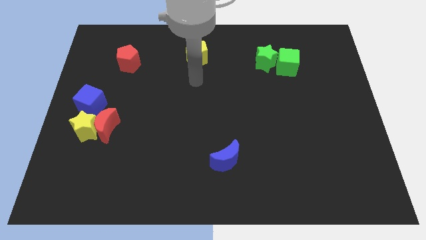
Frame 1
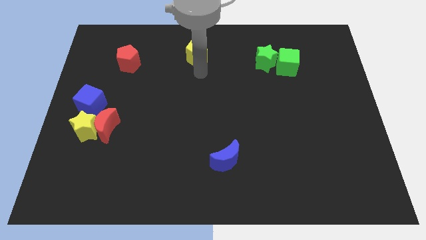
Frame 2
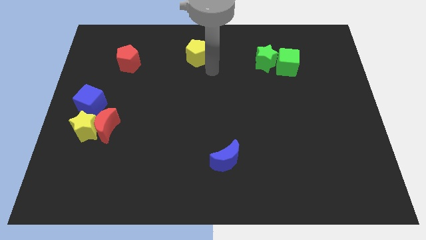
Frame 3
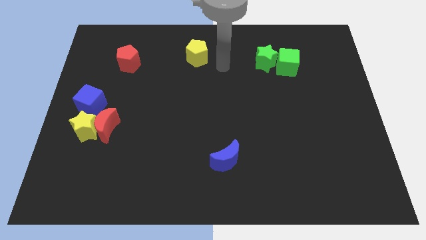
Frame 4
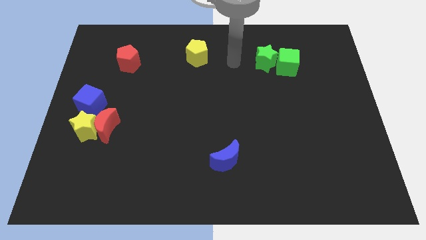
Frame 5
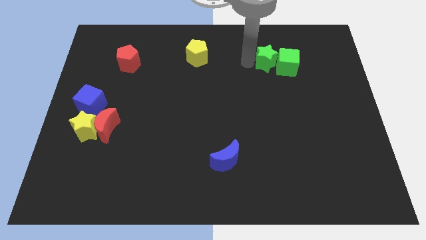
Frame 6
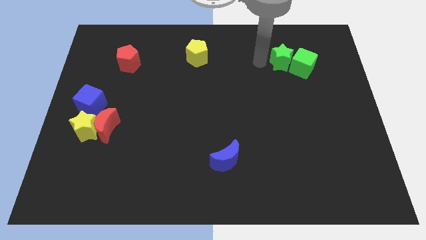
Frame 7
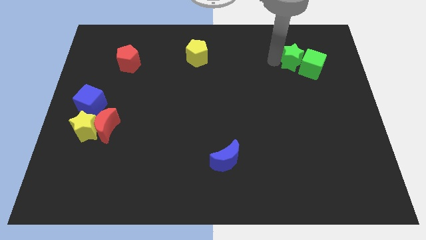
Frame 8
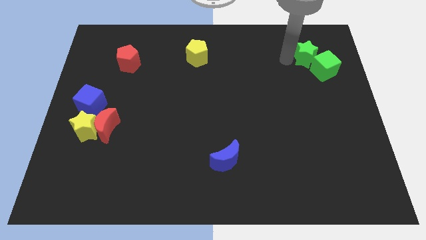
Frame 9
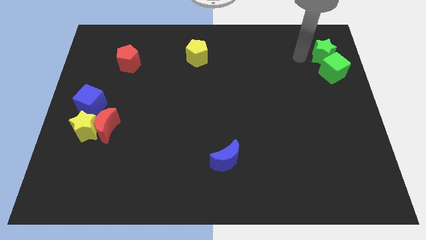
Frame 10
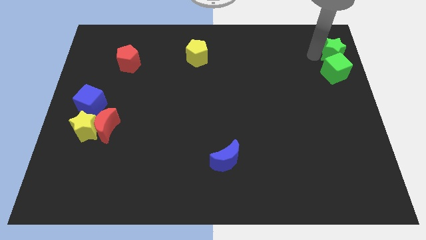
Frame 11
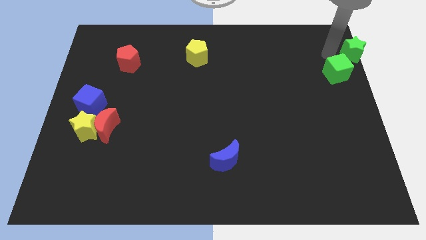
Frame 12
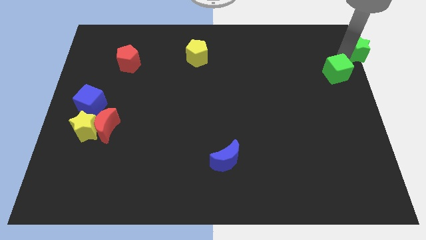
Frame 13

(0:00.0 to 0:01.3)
move the green cube away from the green star

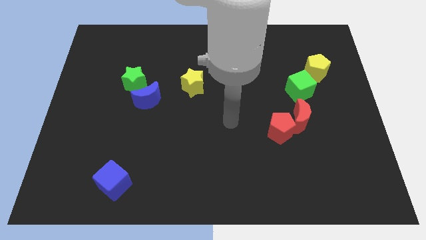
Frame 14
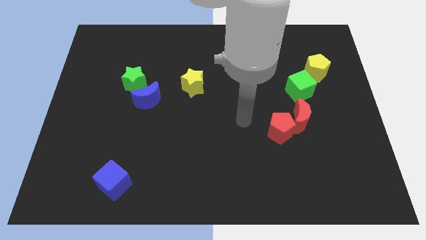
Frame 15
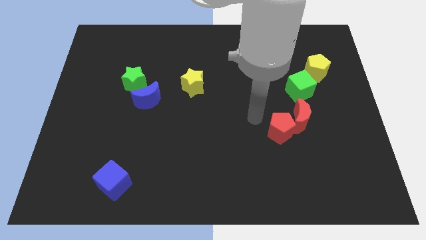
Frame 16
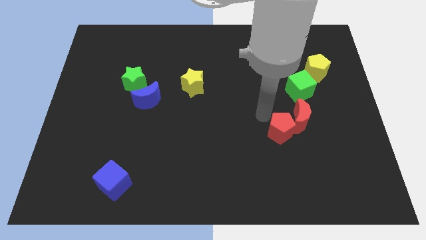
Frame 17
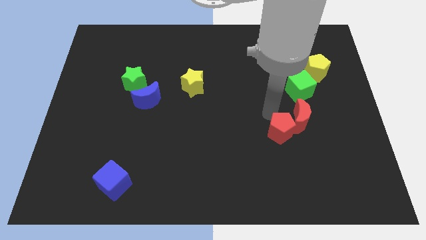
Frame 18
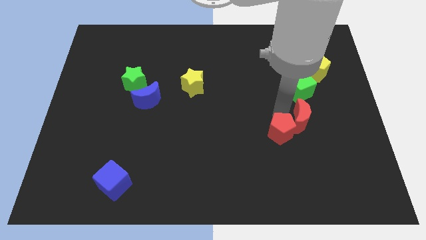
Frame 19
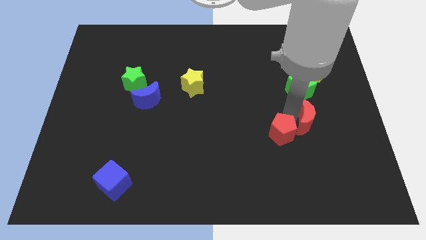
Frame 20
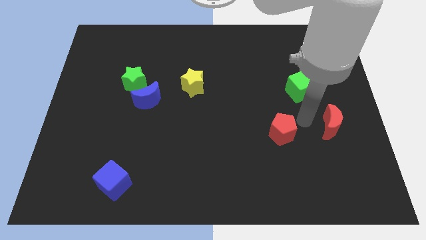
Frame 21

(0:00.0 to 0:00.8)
pull the red pentagon apart from the red moon

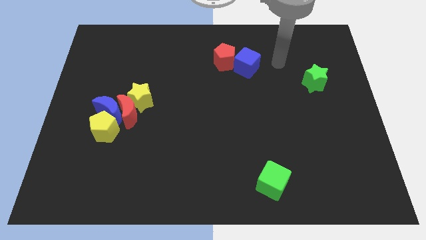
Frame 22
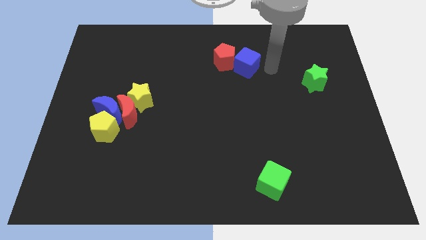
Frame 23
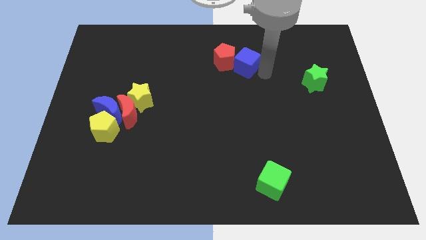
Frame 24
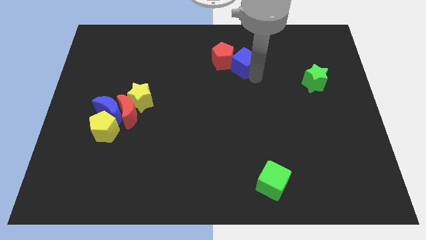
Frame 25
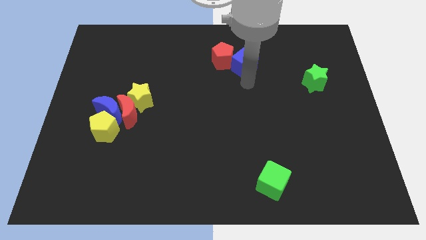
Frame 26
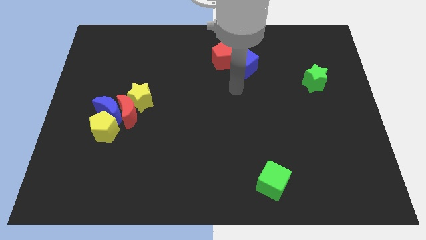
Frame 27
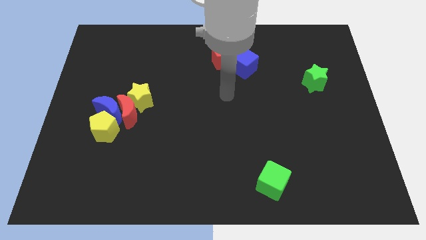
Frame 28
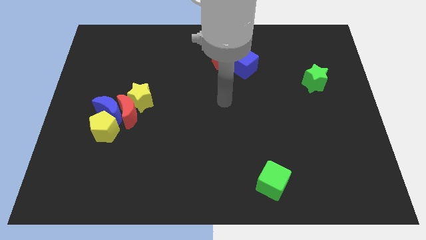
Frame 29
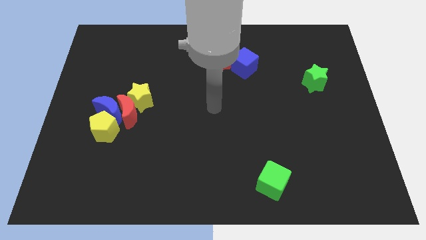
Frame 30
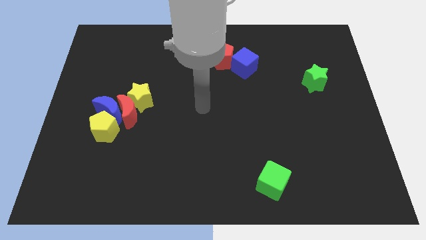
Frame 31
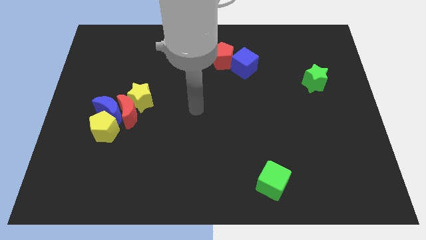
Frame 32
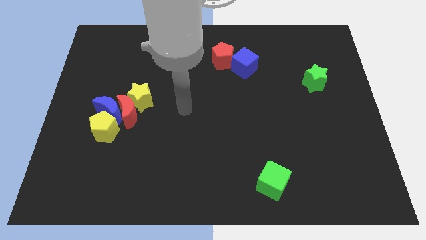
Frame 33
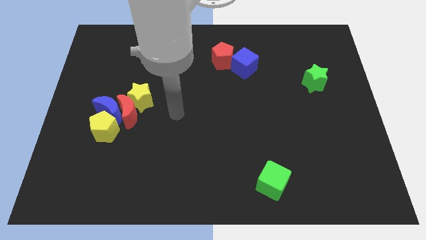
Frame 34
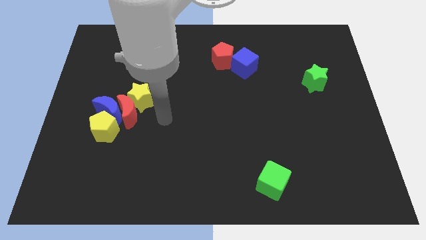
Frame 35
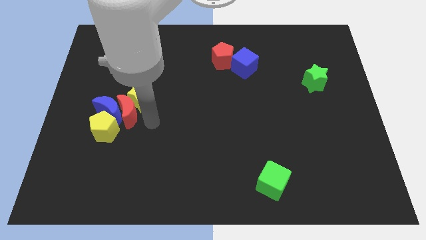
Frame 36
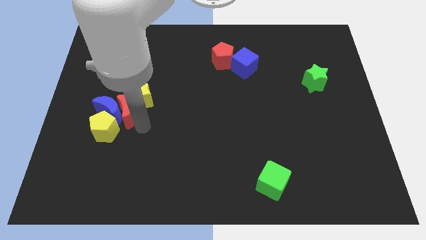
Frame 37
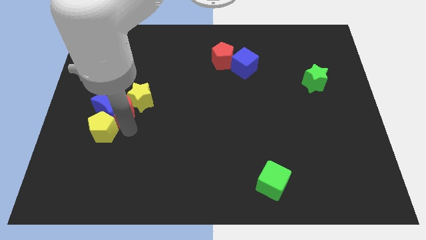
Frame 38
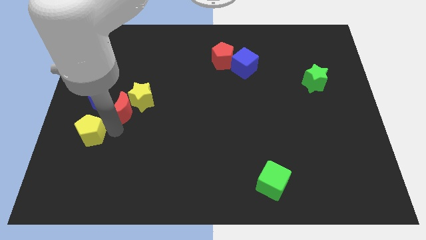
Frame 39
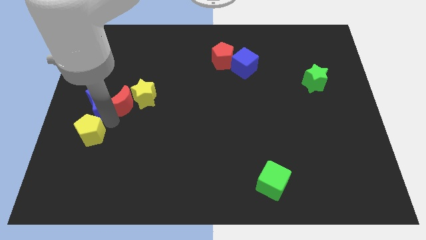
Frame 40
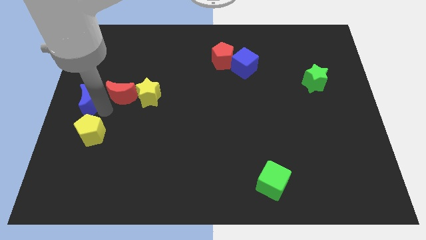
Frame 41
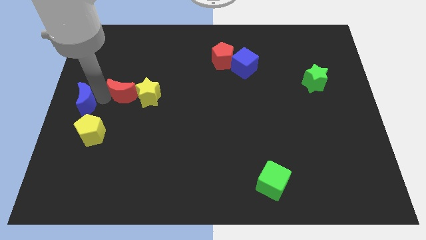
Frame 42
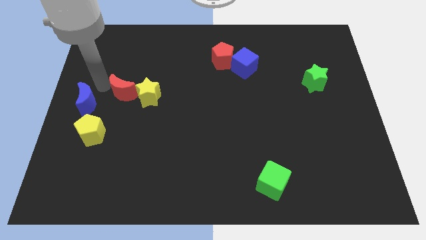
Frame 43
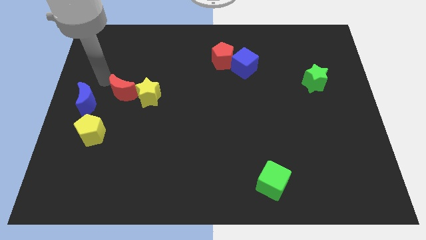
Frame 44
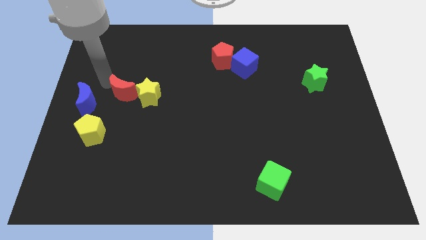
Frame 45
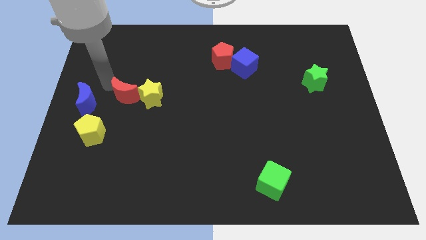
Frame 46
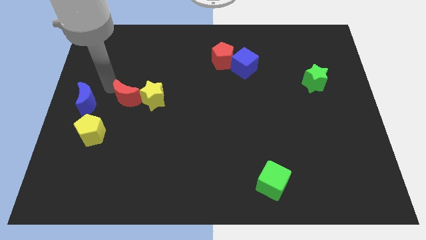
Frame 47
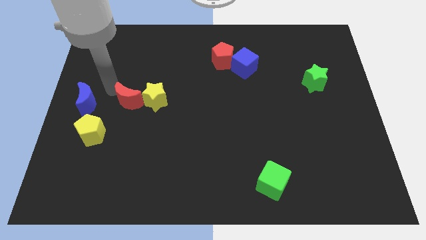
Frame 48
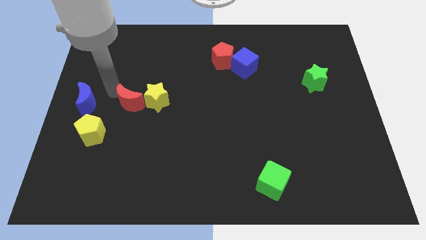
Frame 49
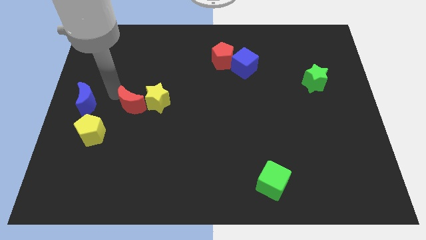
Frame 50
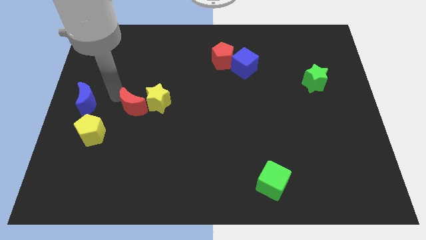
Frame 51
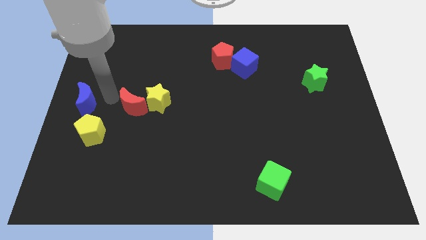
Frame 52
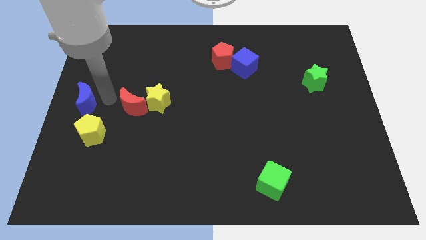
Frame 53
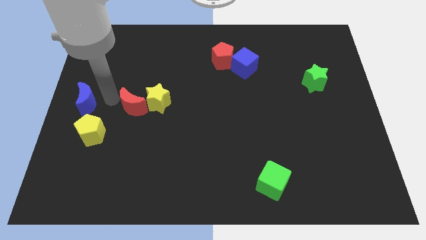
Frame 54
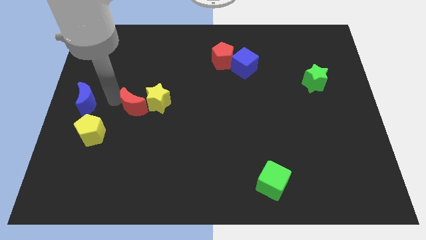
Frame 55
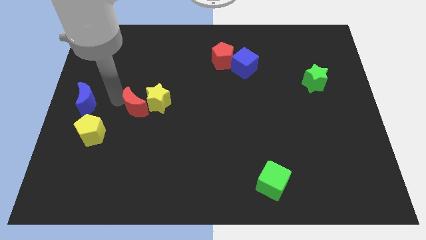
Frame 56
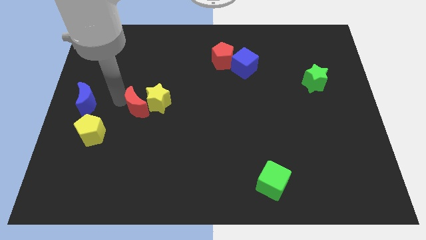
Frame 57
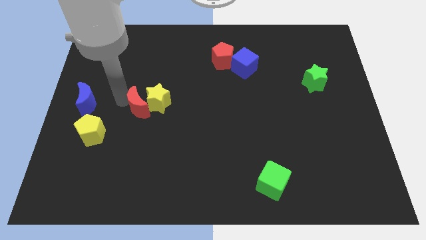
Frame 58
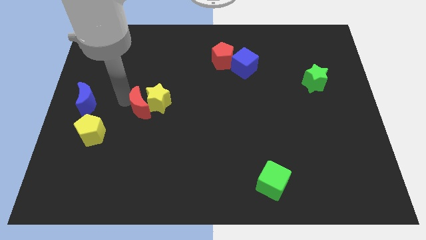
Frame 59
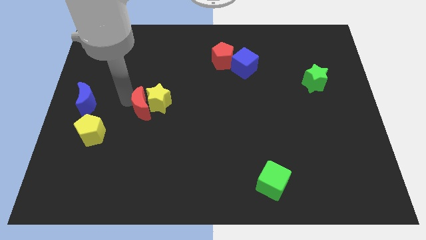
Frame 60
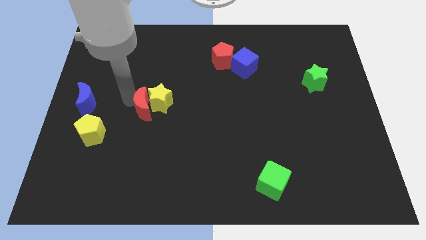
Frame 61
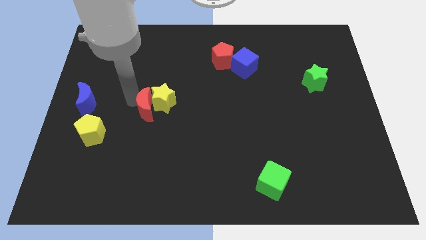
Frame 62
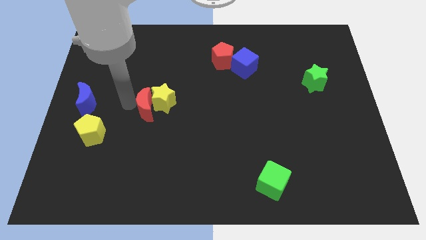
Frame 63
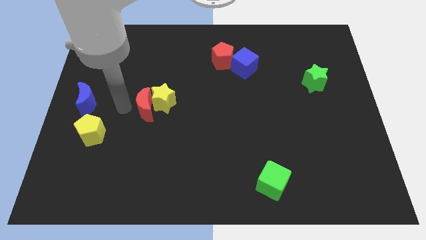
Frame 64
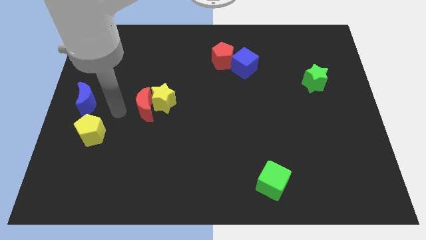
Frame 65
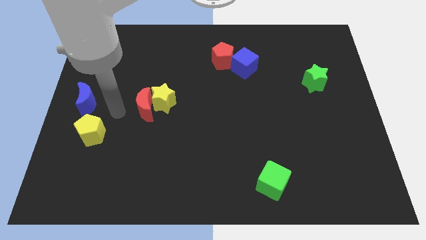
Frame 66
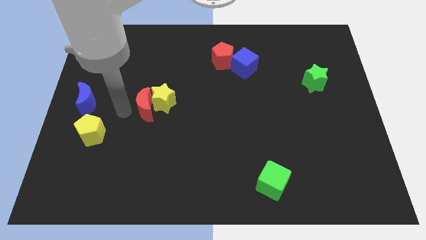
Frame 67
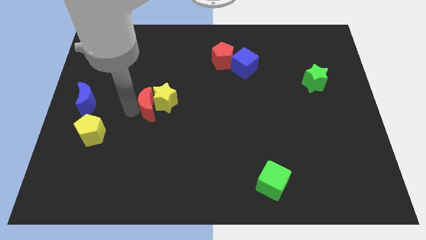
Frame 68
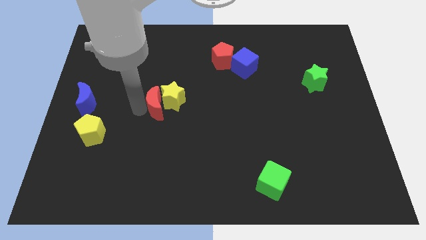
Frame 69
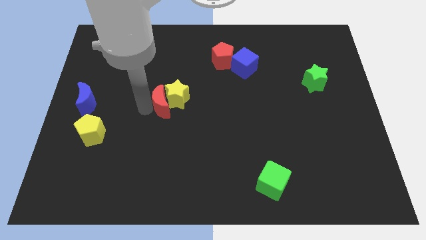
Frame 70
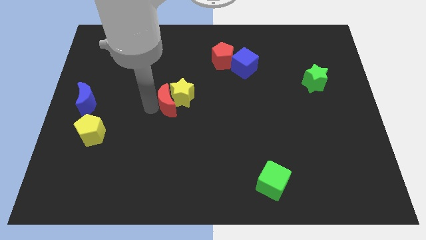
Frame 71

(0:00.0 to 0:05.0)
move the red moon away from the blue moon, yellow star, and yellow pentagon

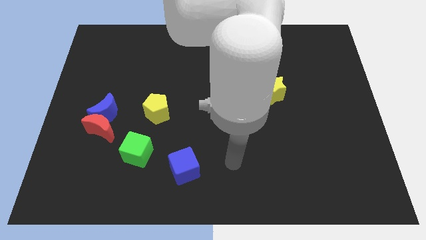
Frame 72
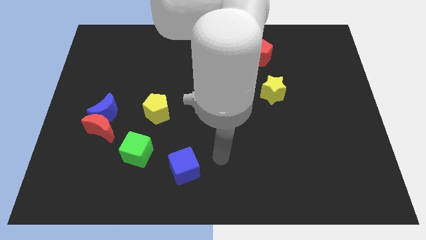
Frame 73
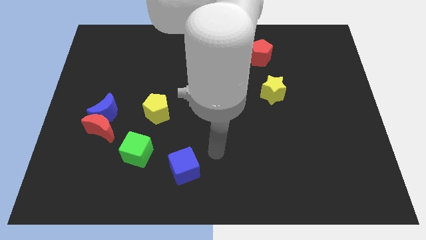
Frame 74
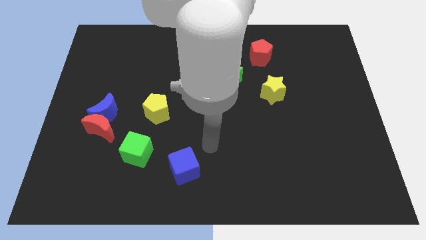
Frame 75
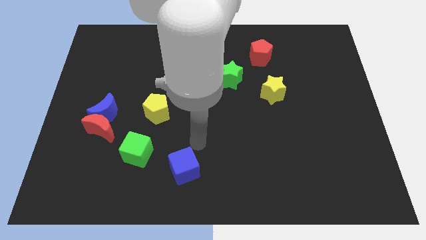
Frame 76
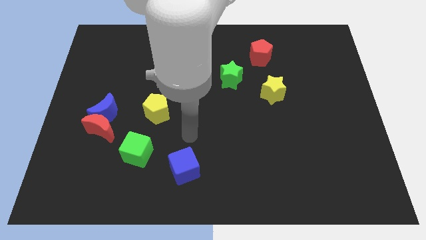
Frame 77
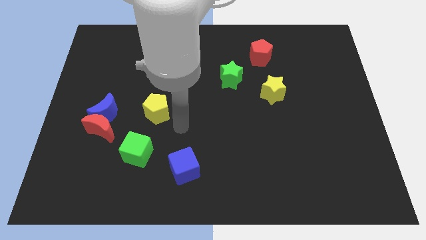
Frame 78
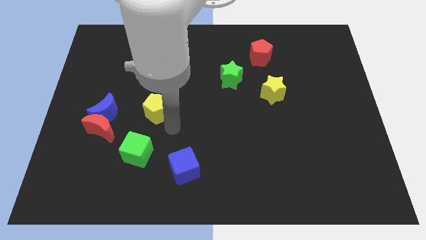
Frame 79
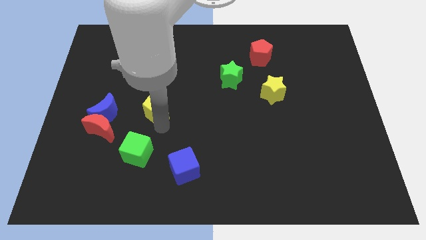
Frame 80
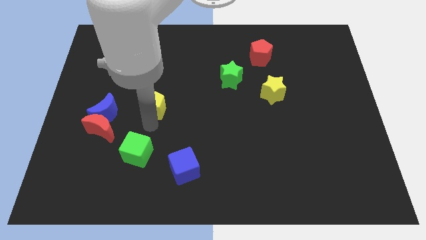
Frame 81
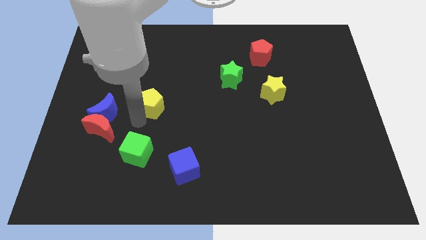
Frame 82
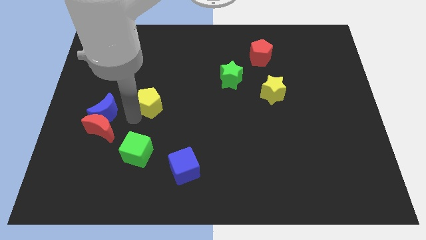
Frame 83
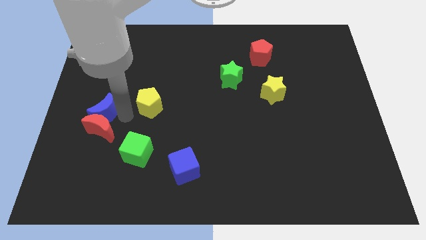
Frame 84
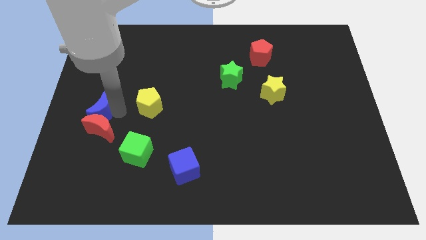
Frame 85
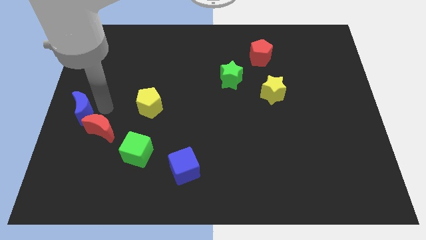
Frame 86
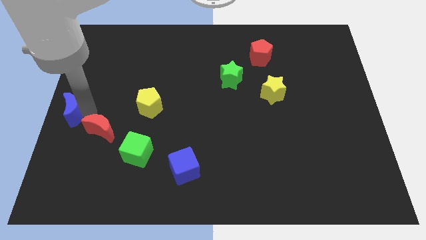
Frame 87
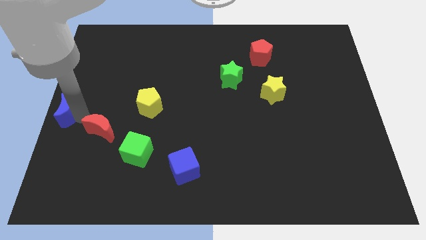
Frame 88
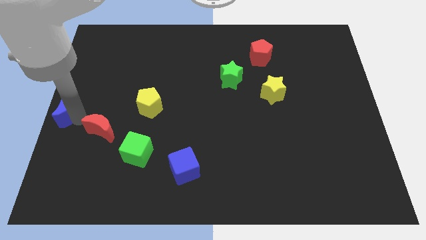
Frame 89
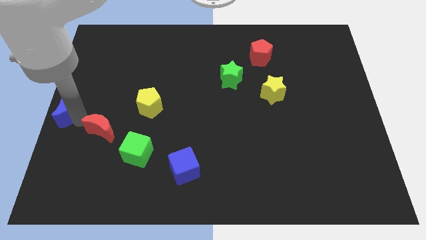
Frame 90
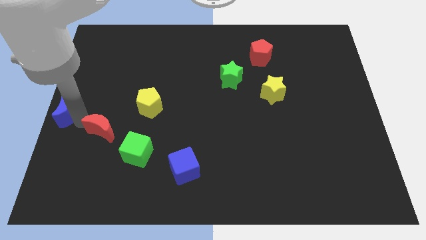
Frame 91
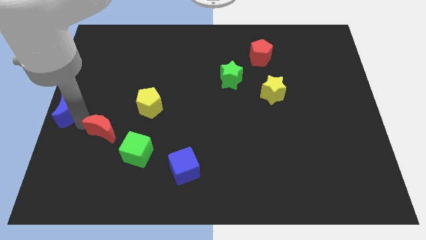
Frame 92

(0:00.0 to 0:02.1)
pull the red moon apart from the blue moon
